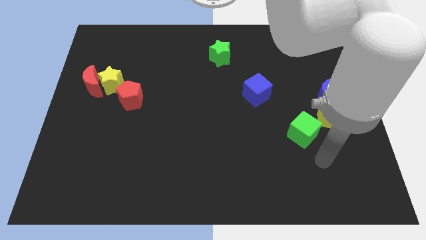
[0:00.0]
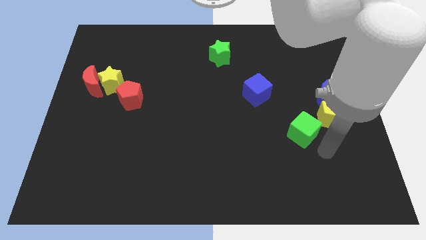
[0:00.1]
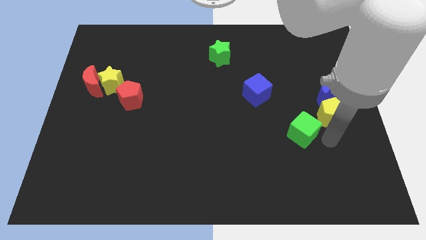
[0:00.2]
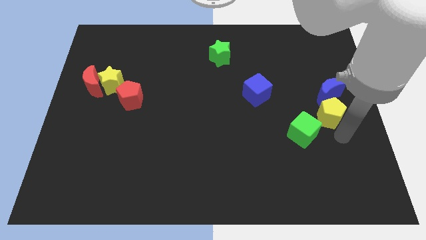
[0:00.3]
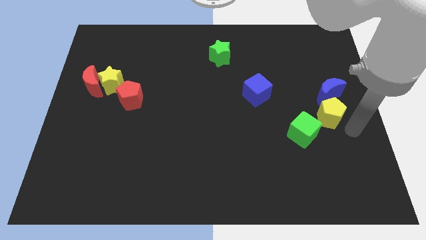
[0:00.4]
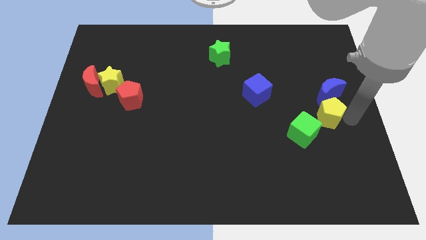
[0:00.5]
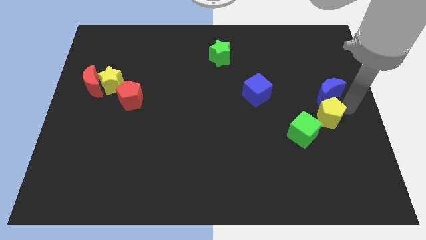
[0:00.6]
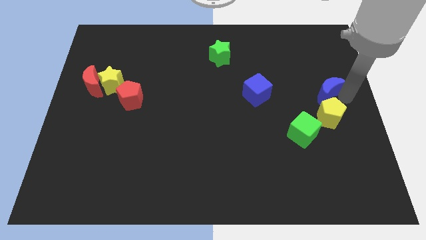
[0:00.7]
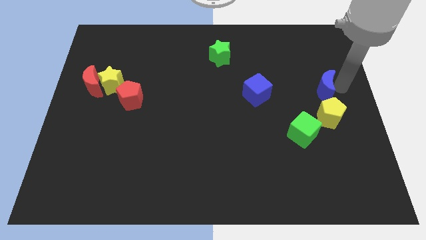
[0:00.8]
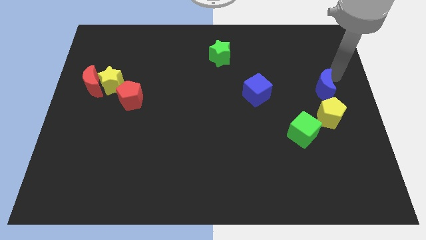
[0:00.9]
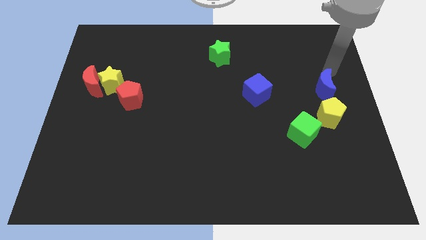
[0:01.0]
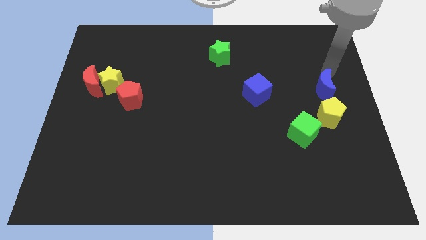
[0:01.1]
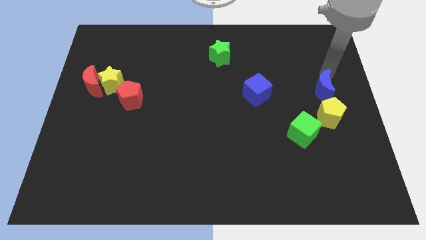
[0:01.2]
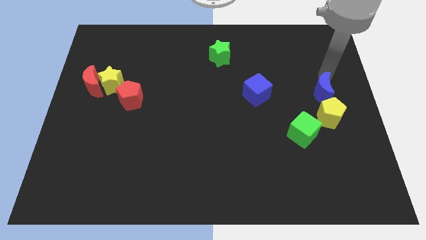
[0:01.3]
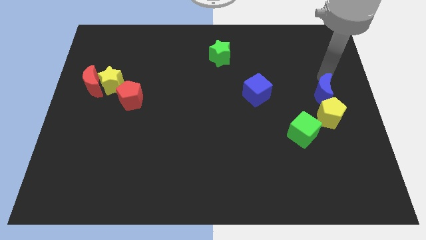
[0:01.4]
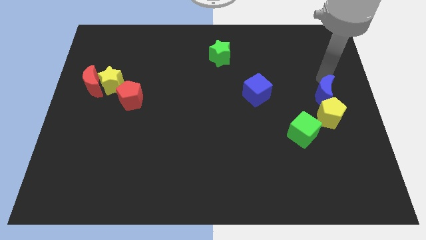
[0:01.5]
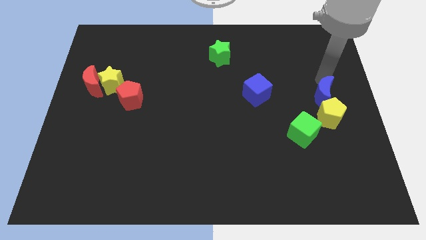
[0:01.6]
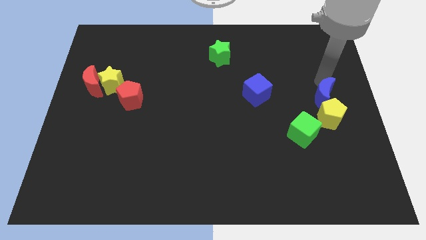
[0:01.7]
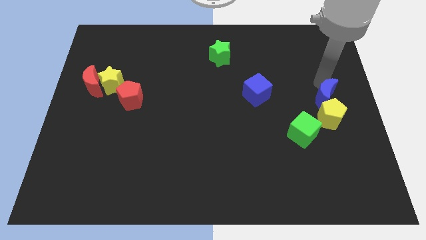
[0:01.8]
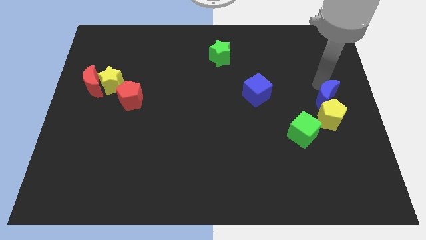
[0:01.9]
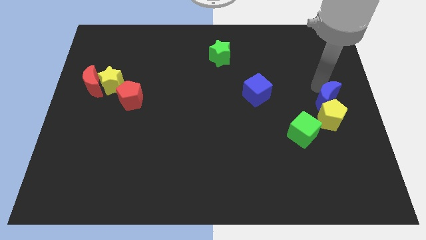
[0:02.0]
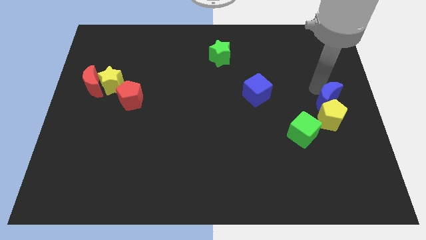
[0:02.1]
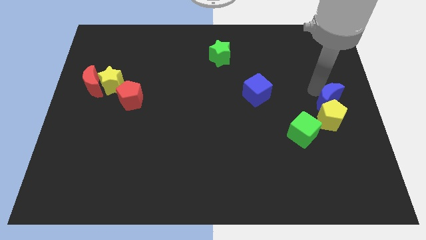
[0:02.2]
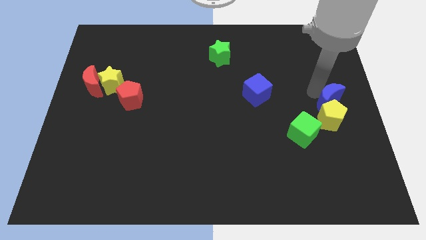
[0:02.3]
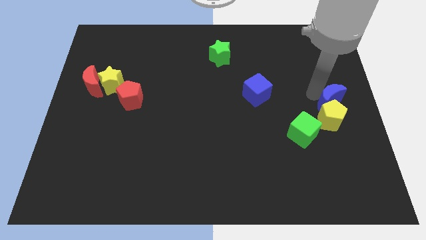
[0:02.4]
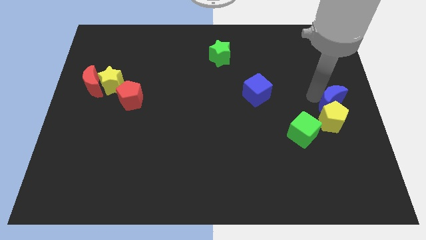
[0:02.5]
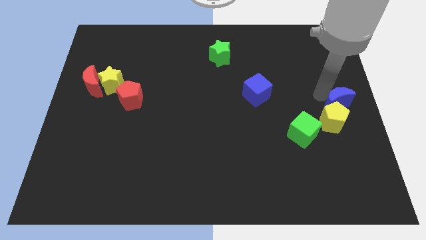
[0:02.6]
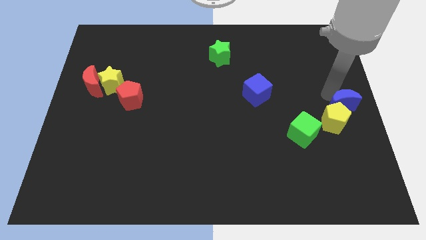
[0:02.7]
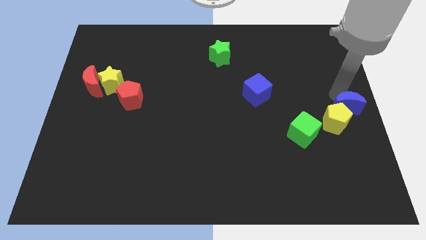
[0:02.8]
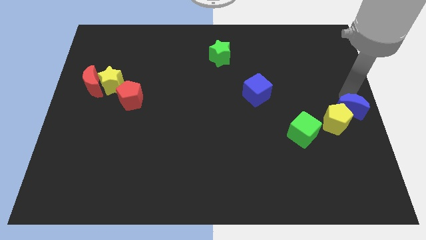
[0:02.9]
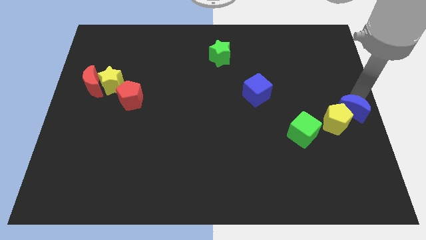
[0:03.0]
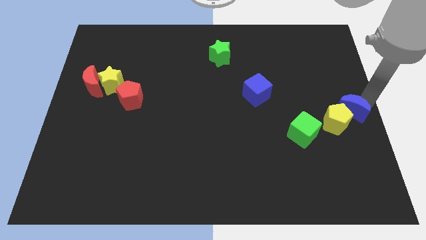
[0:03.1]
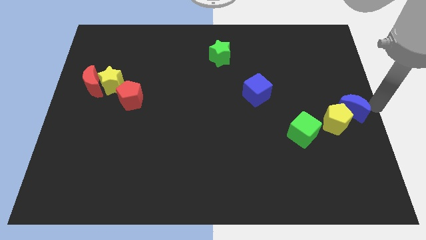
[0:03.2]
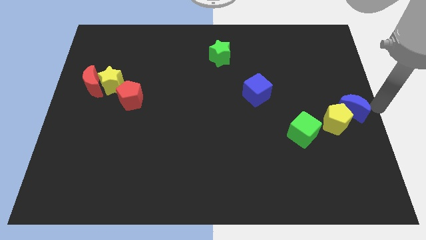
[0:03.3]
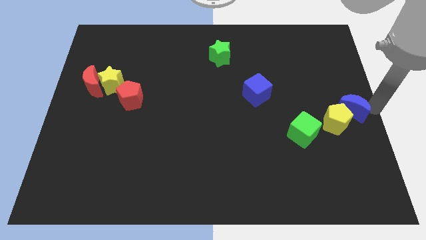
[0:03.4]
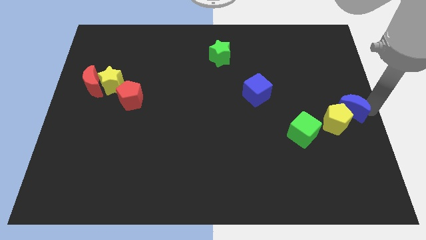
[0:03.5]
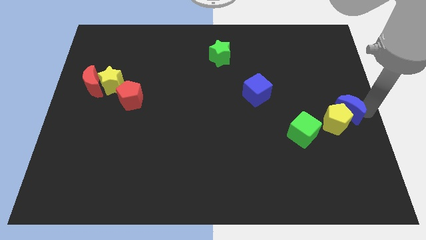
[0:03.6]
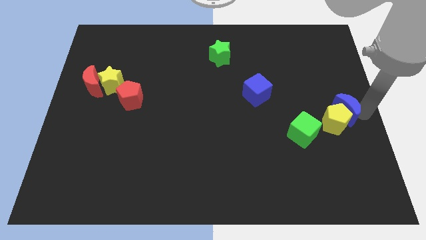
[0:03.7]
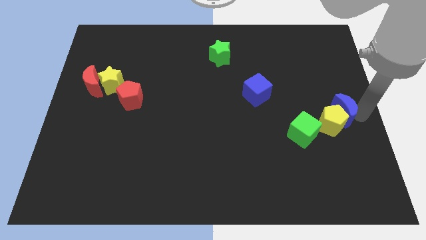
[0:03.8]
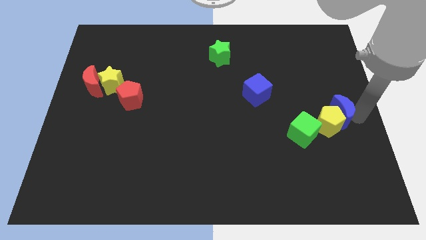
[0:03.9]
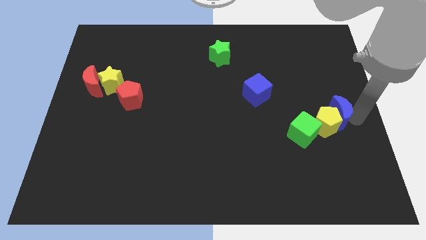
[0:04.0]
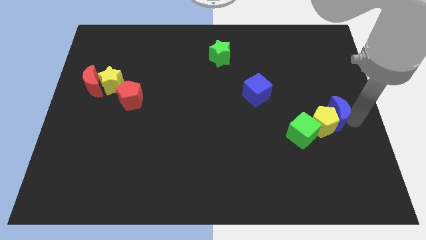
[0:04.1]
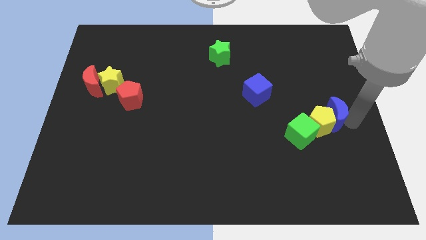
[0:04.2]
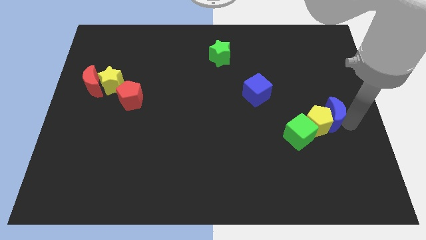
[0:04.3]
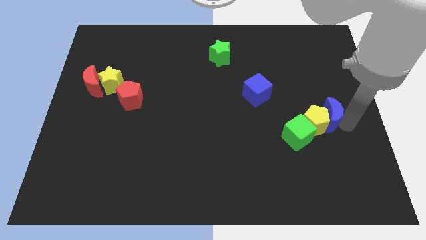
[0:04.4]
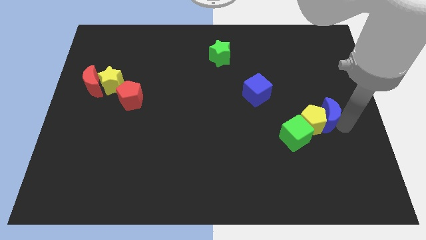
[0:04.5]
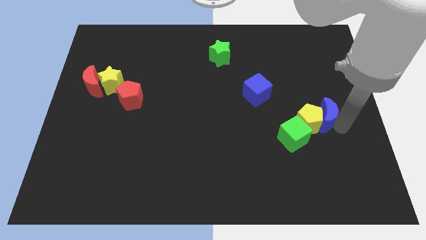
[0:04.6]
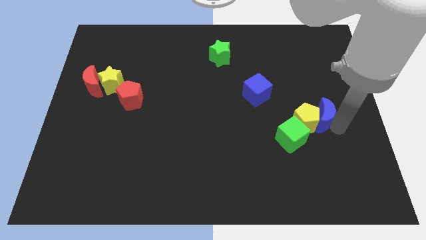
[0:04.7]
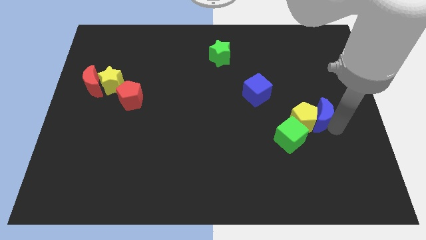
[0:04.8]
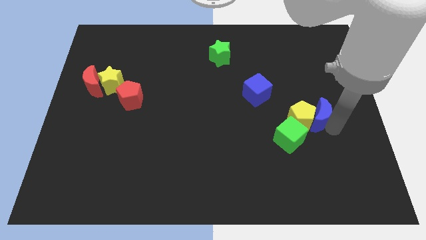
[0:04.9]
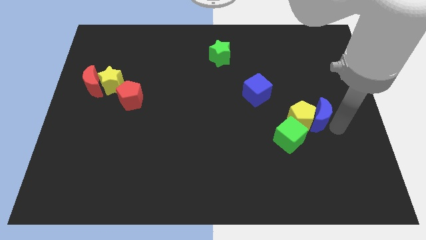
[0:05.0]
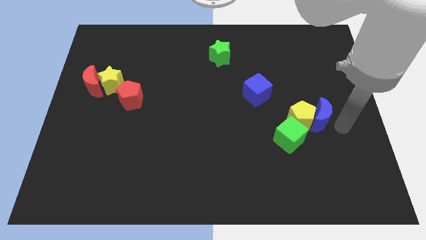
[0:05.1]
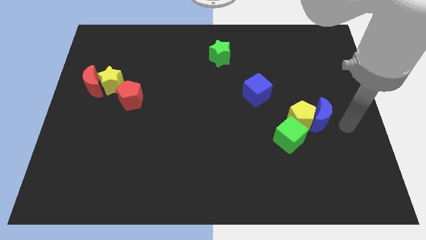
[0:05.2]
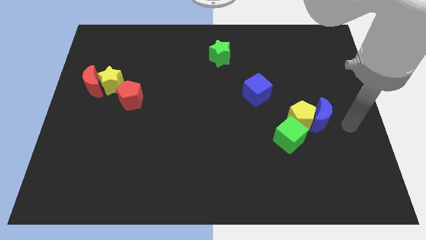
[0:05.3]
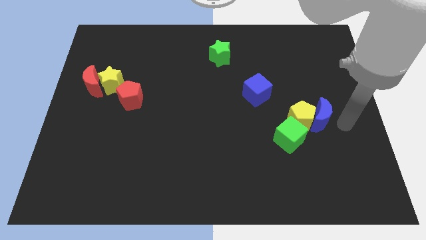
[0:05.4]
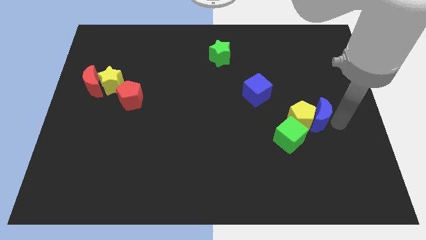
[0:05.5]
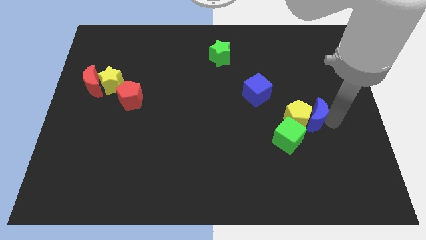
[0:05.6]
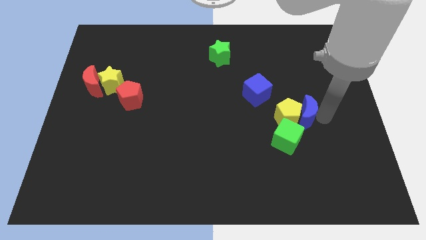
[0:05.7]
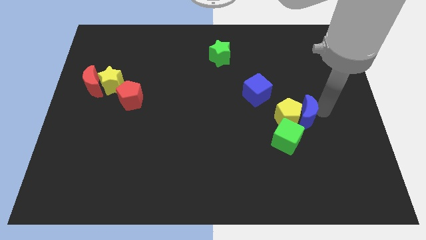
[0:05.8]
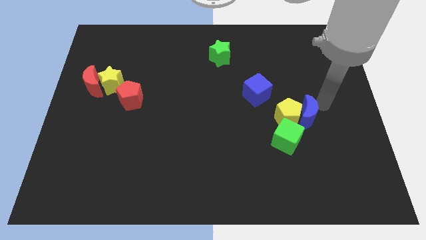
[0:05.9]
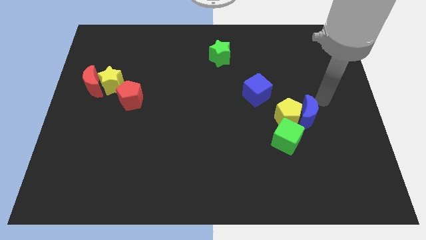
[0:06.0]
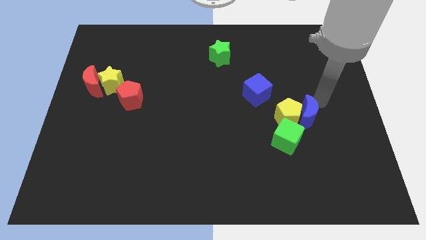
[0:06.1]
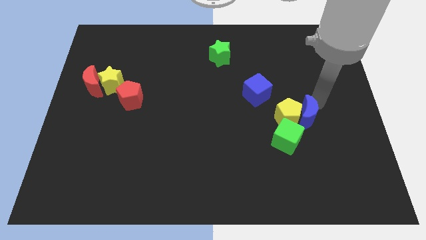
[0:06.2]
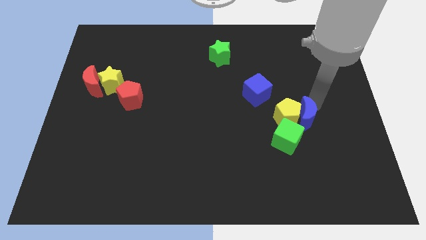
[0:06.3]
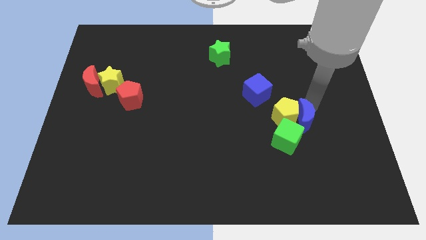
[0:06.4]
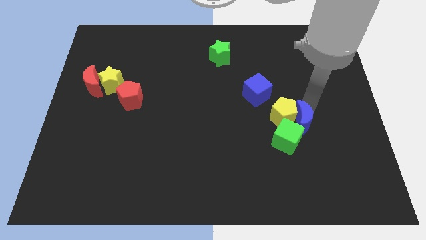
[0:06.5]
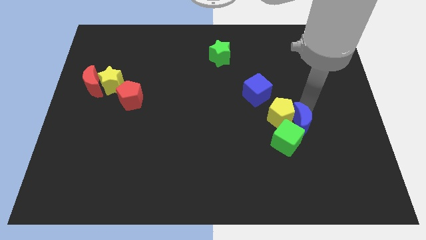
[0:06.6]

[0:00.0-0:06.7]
push the blue moon close to the green cube

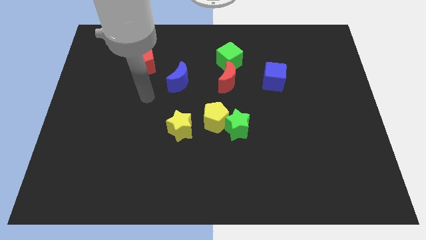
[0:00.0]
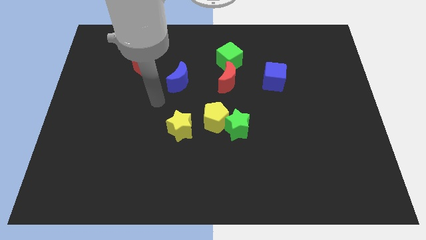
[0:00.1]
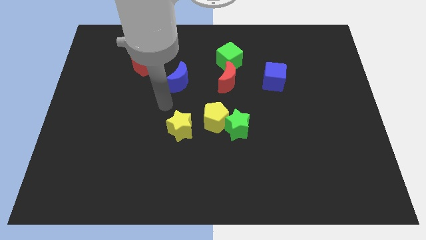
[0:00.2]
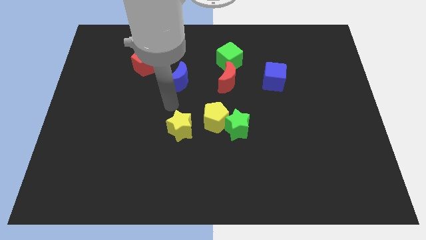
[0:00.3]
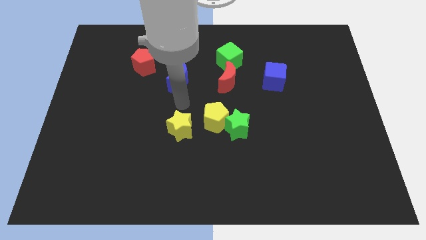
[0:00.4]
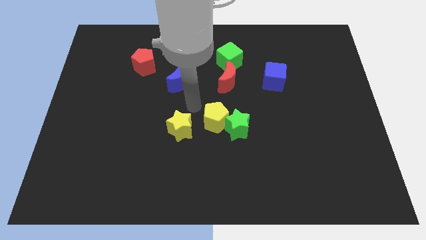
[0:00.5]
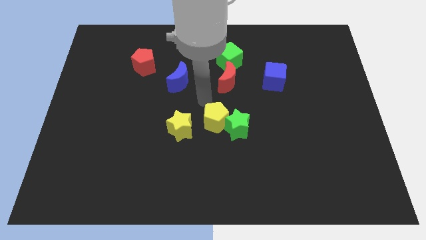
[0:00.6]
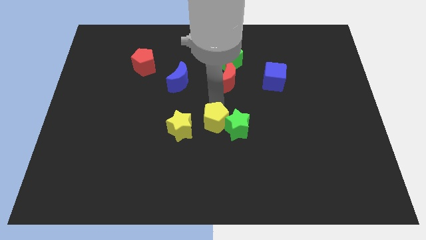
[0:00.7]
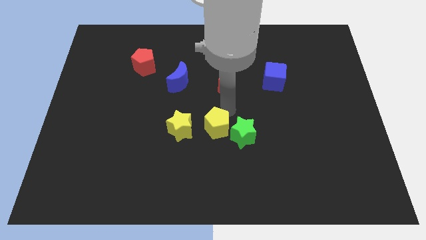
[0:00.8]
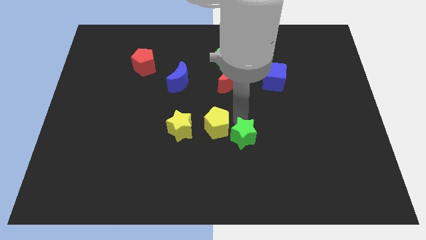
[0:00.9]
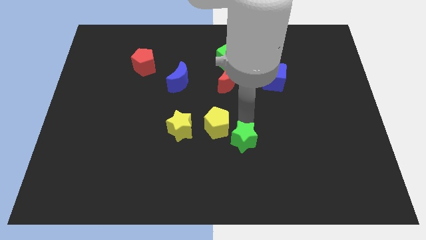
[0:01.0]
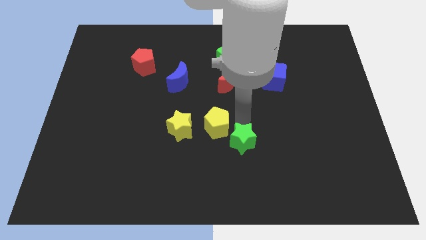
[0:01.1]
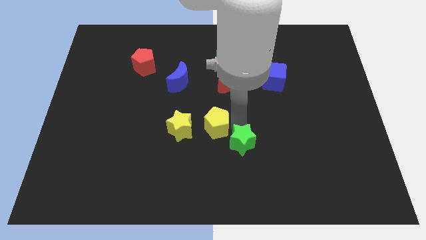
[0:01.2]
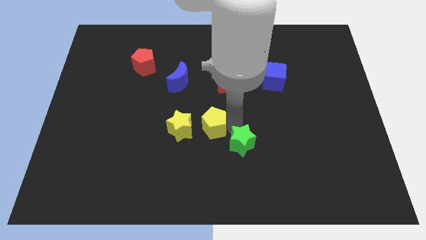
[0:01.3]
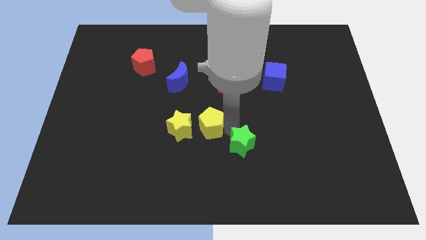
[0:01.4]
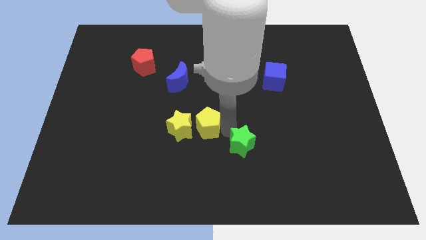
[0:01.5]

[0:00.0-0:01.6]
push the yellow pentagon close to the yellow star

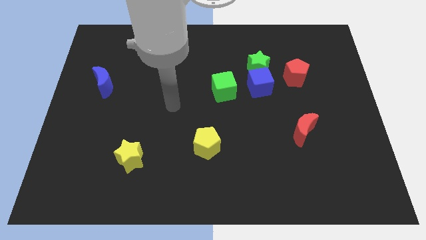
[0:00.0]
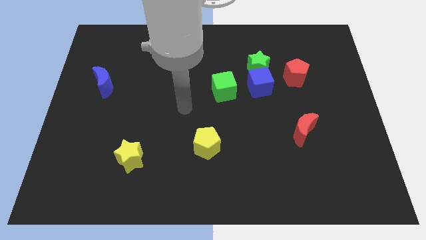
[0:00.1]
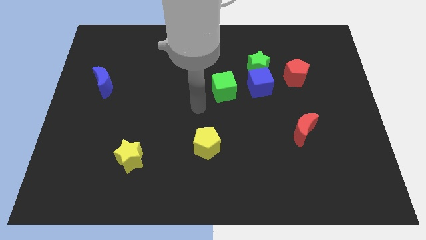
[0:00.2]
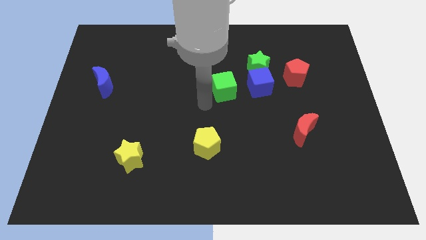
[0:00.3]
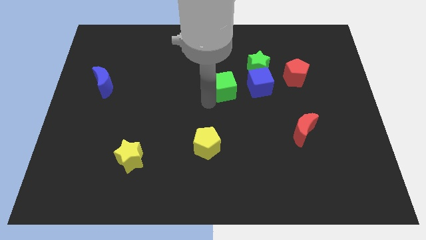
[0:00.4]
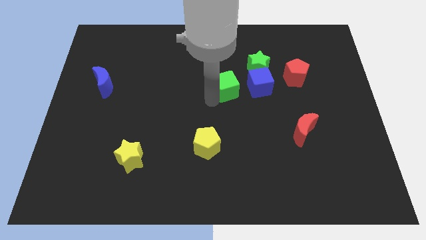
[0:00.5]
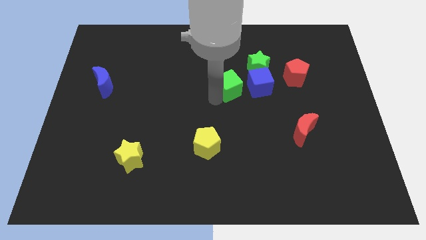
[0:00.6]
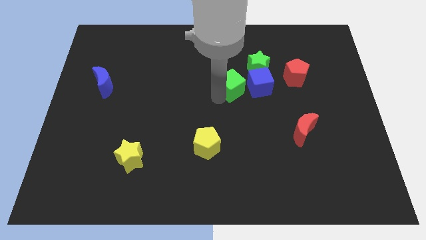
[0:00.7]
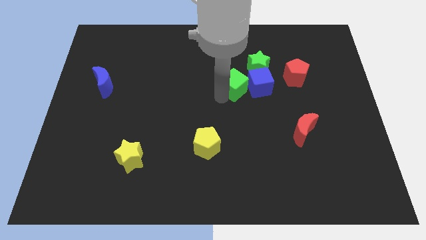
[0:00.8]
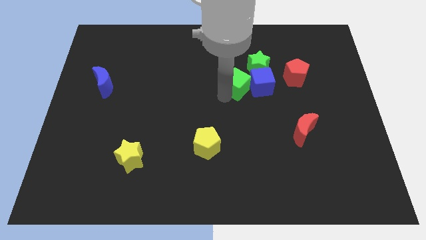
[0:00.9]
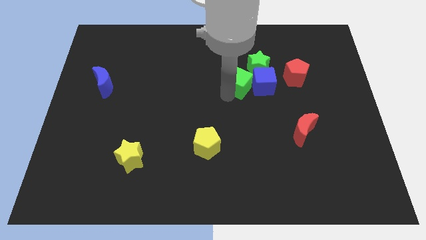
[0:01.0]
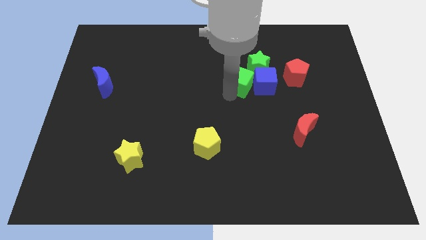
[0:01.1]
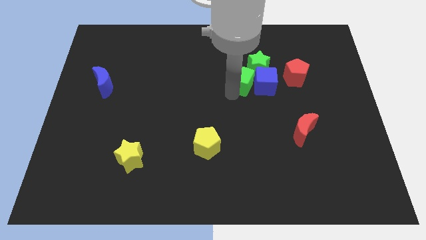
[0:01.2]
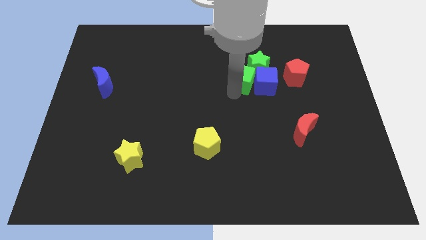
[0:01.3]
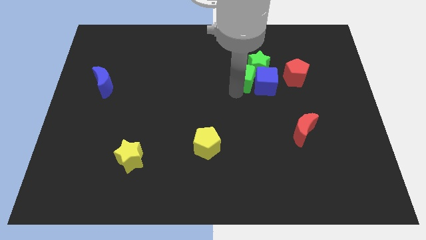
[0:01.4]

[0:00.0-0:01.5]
slide the green cube to the green star
